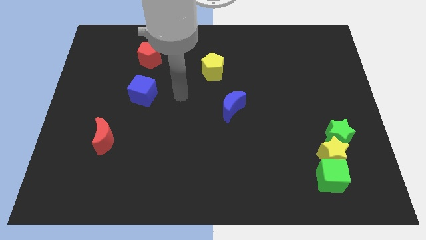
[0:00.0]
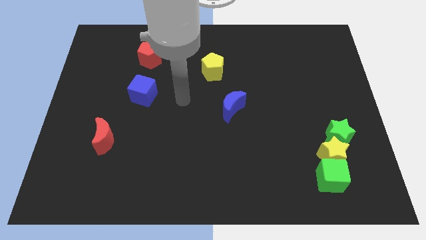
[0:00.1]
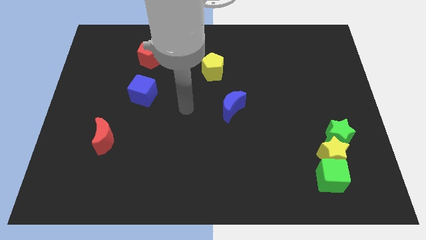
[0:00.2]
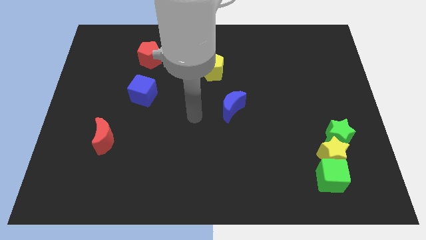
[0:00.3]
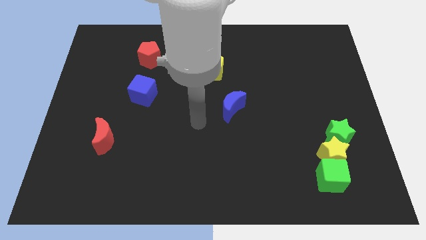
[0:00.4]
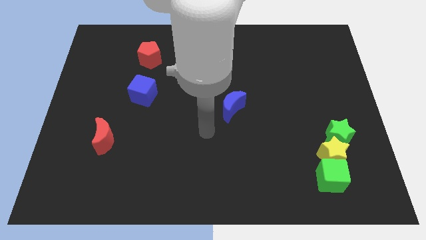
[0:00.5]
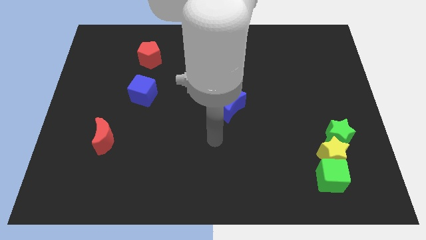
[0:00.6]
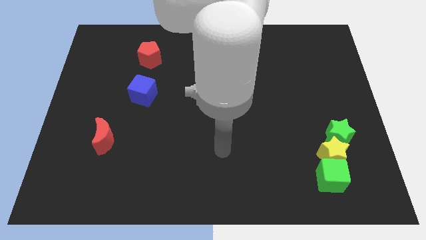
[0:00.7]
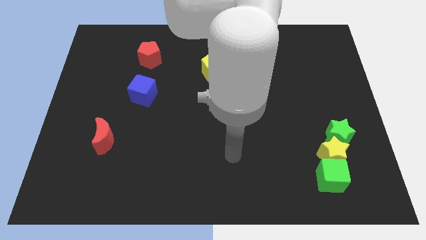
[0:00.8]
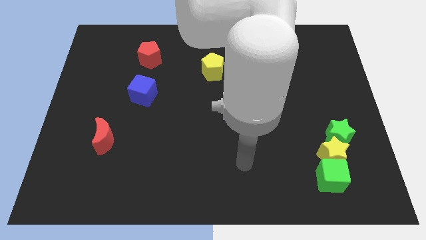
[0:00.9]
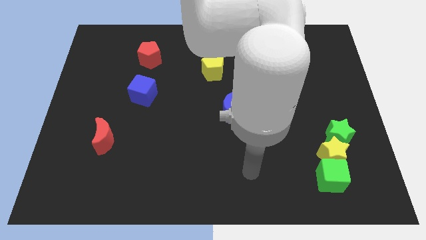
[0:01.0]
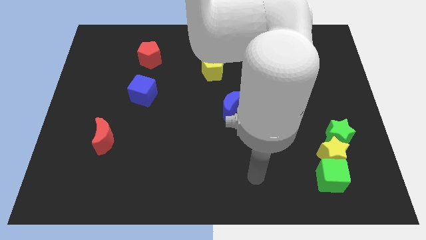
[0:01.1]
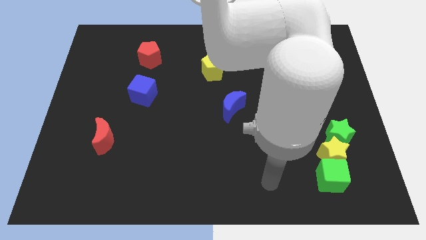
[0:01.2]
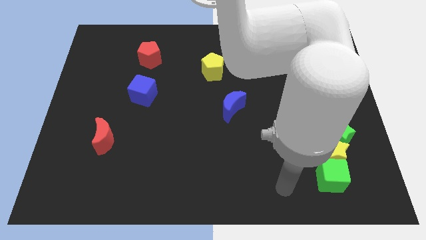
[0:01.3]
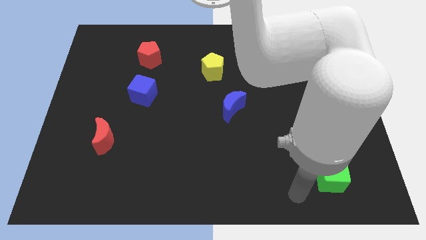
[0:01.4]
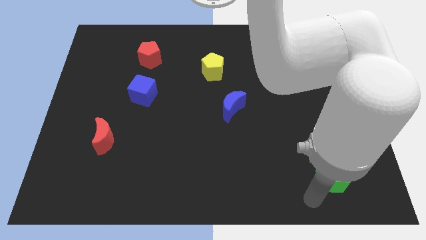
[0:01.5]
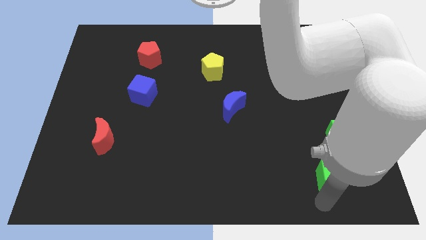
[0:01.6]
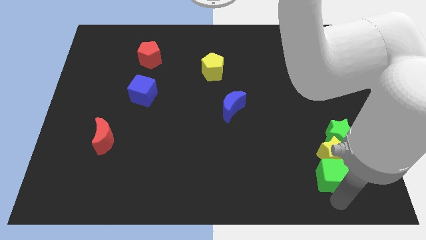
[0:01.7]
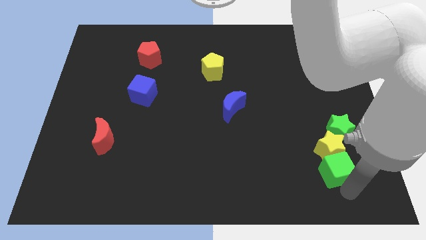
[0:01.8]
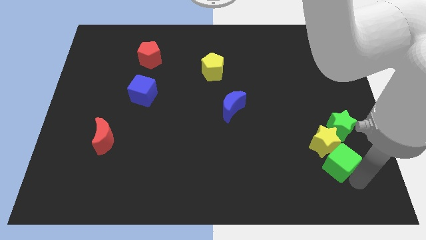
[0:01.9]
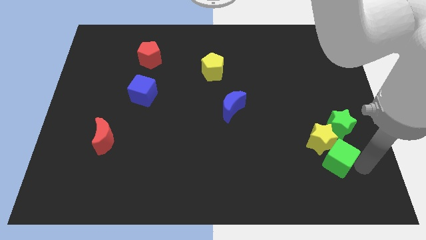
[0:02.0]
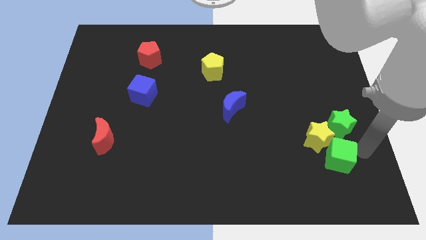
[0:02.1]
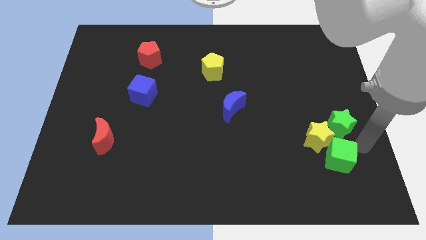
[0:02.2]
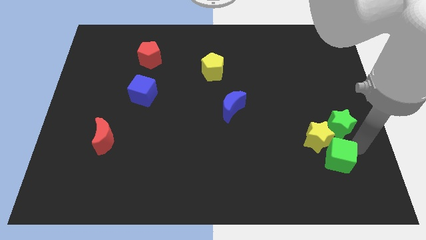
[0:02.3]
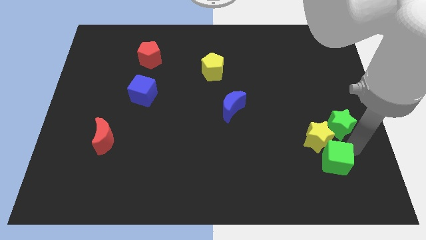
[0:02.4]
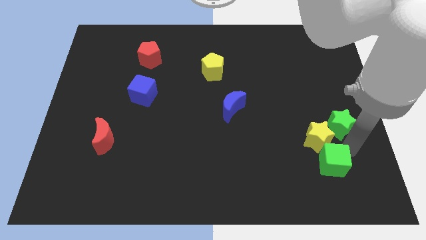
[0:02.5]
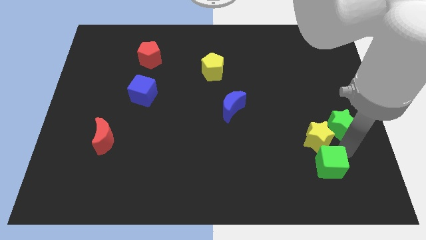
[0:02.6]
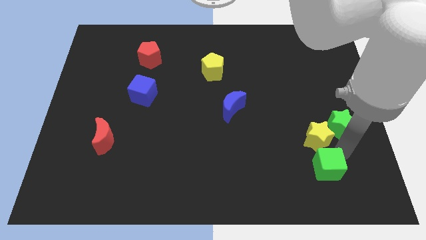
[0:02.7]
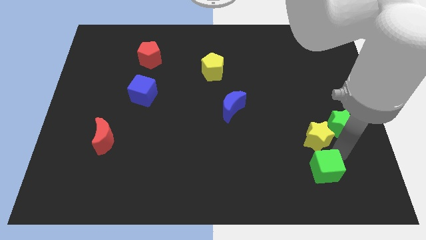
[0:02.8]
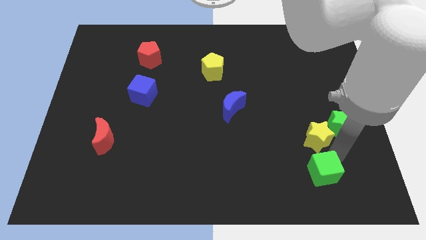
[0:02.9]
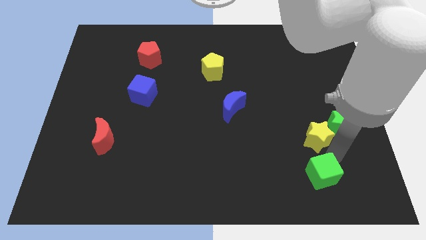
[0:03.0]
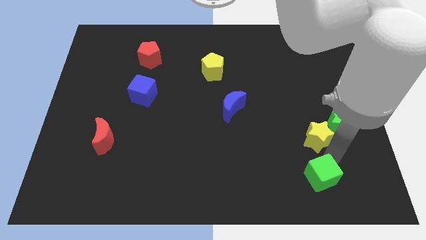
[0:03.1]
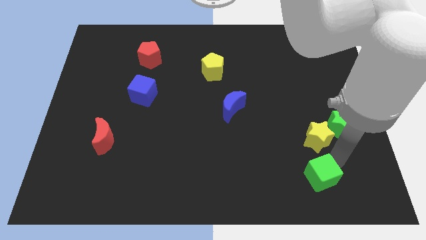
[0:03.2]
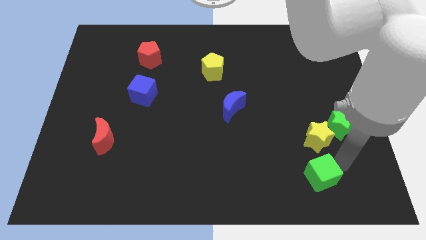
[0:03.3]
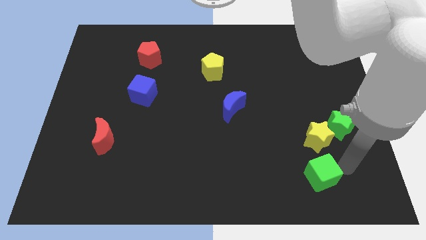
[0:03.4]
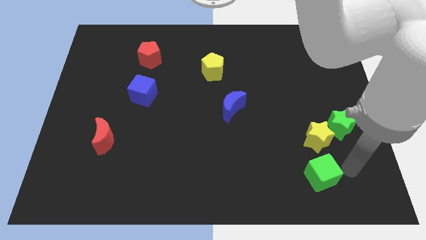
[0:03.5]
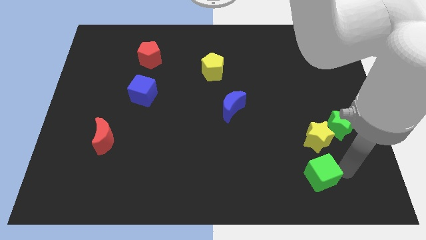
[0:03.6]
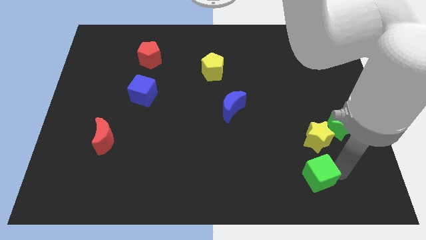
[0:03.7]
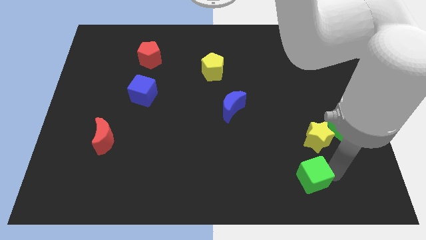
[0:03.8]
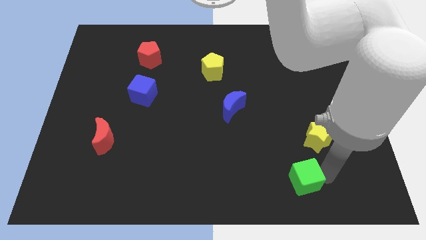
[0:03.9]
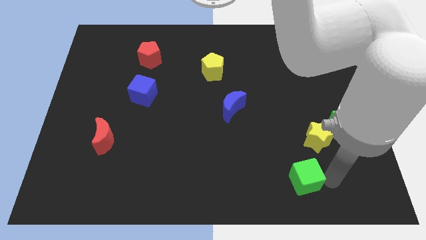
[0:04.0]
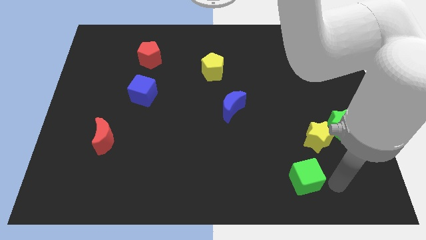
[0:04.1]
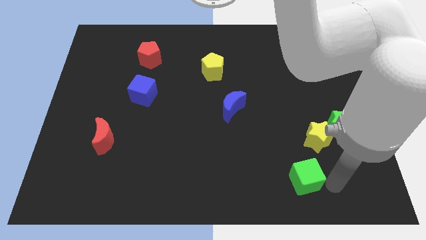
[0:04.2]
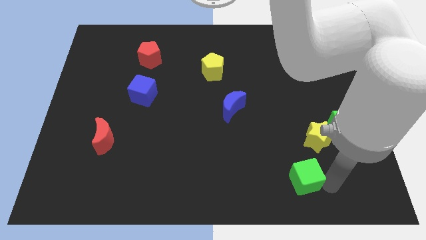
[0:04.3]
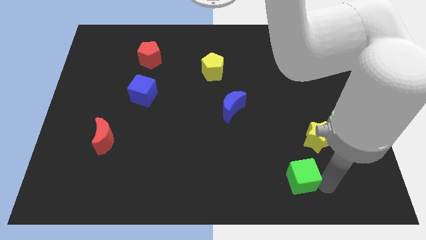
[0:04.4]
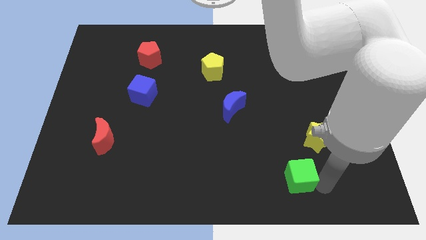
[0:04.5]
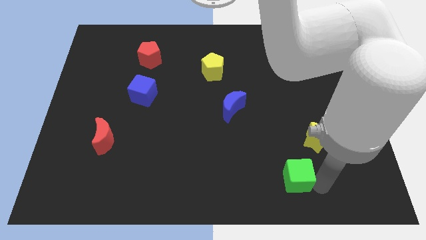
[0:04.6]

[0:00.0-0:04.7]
slide the green cube a bit left

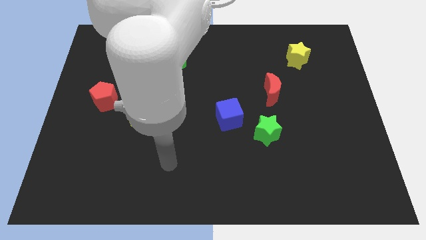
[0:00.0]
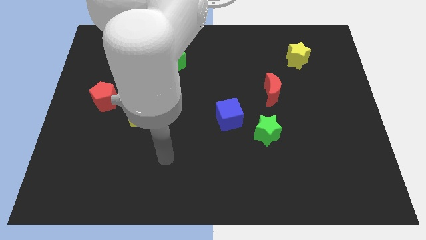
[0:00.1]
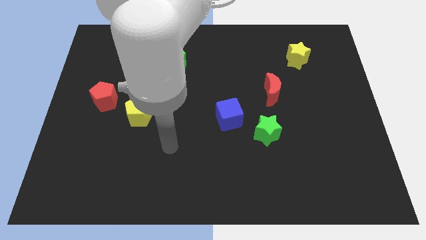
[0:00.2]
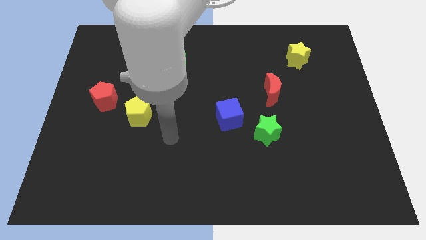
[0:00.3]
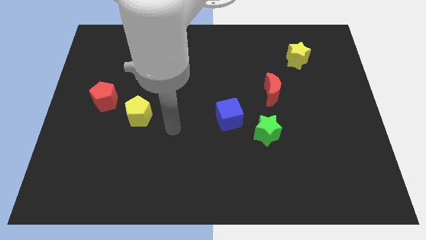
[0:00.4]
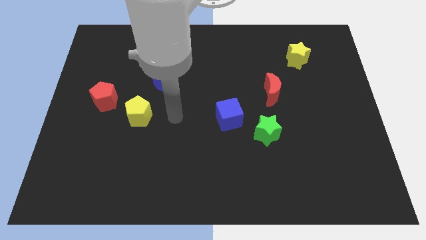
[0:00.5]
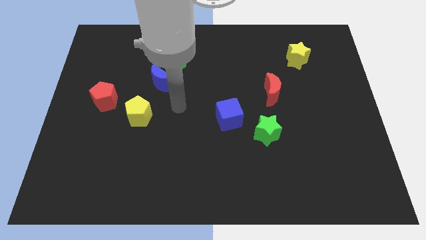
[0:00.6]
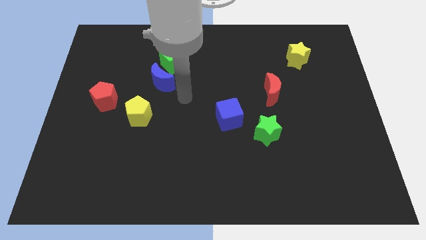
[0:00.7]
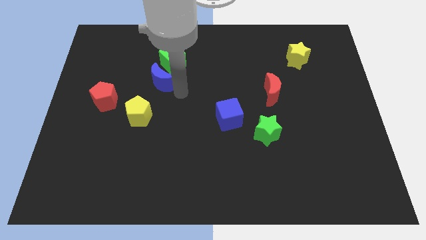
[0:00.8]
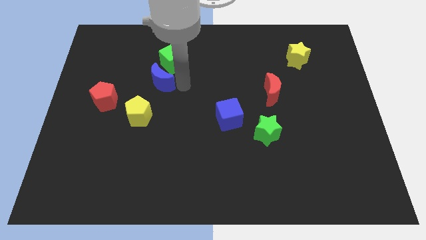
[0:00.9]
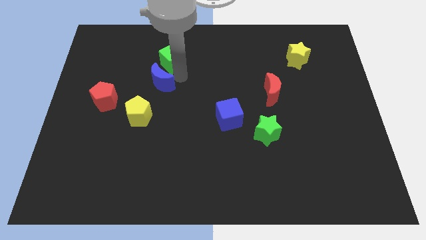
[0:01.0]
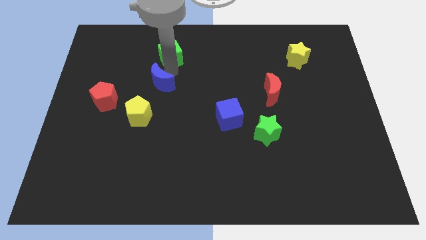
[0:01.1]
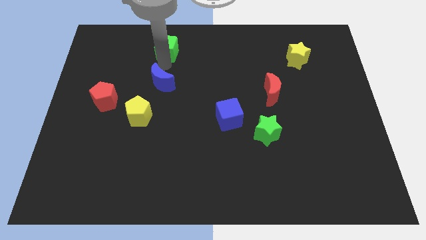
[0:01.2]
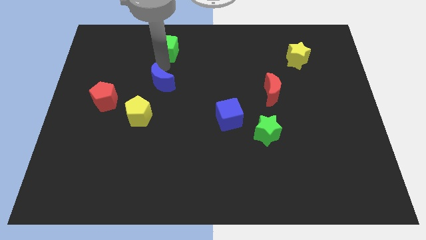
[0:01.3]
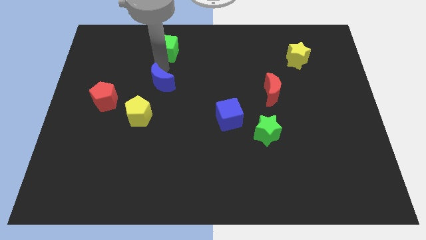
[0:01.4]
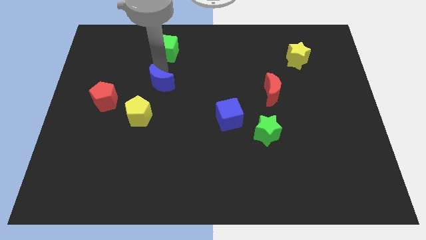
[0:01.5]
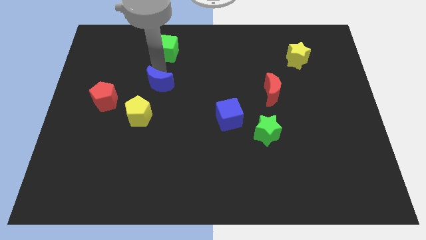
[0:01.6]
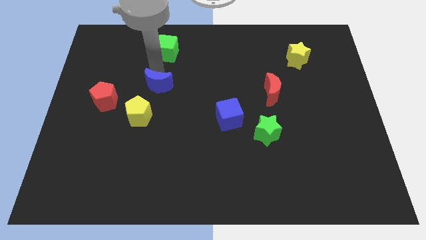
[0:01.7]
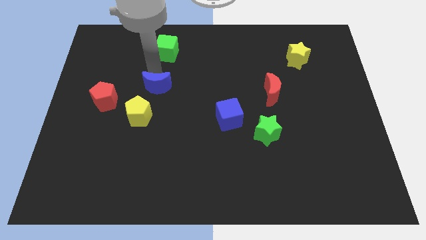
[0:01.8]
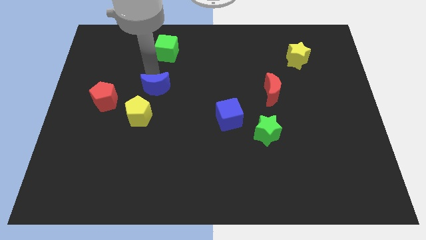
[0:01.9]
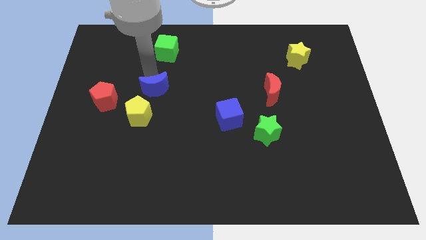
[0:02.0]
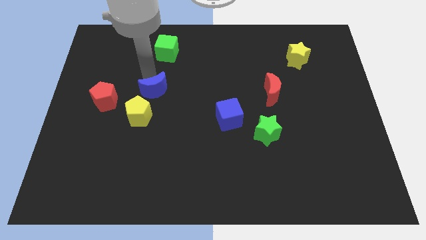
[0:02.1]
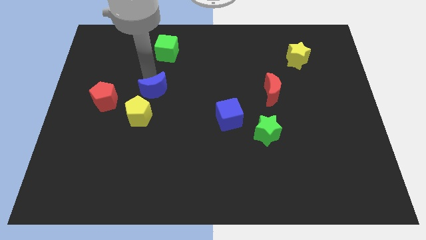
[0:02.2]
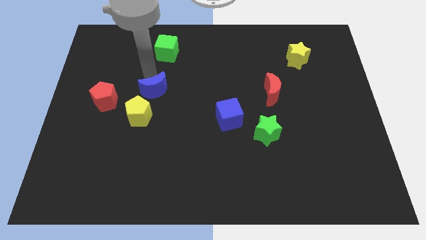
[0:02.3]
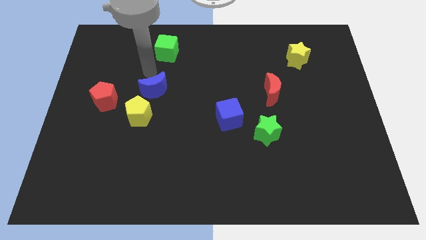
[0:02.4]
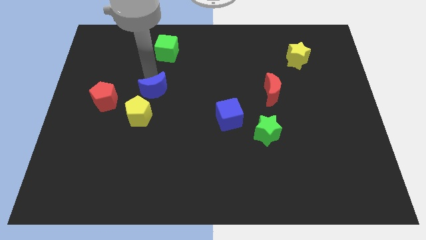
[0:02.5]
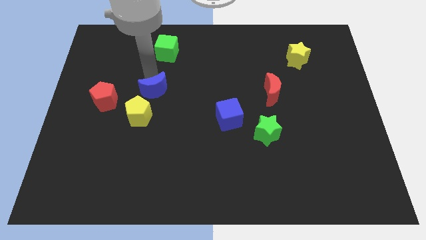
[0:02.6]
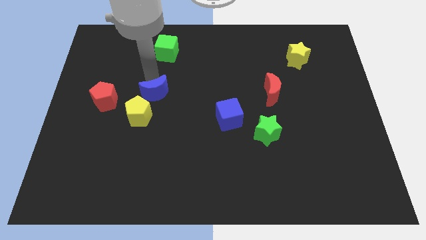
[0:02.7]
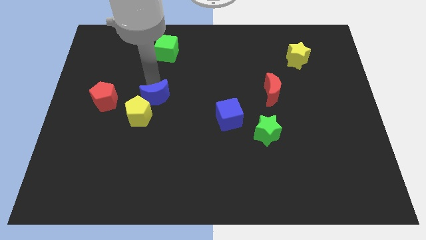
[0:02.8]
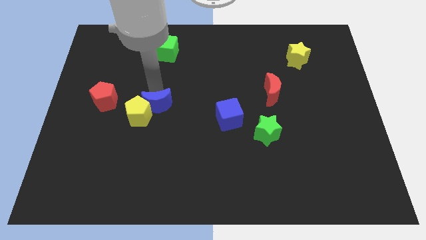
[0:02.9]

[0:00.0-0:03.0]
move the blue moon somewhat downwards

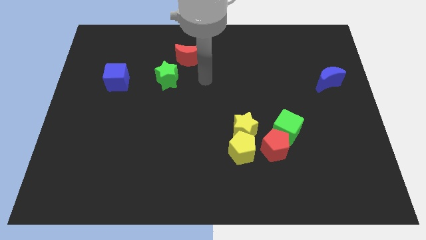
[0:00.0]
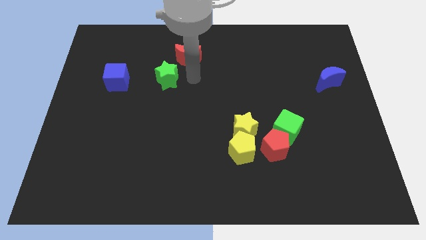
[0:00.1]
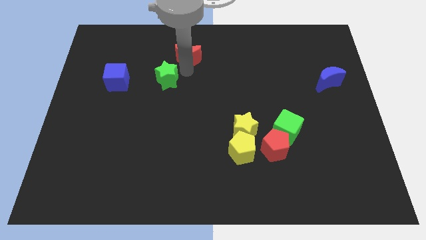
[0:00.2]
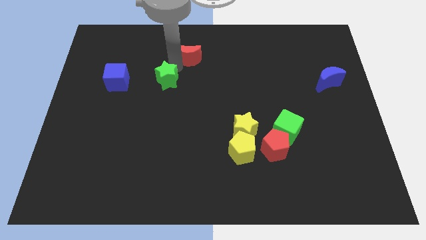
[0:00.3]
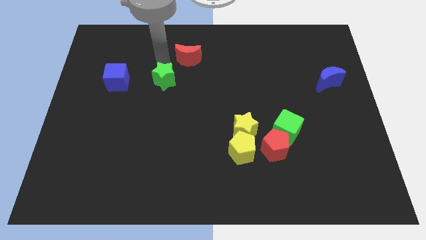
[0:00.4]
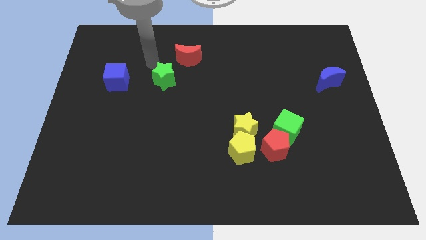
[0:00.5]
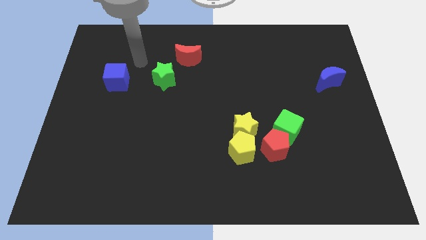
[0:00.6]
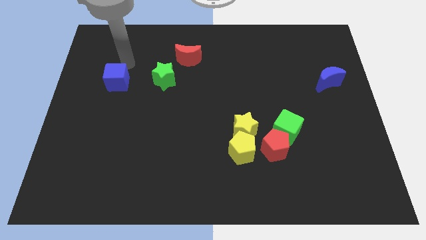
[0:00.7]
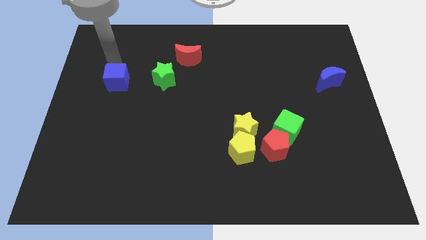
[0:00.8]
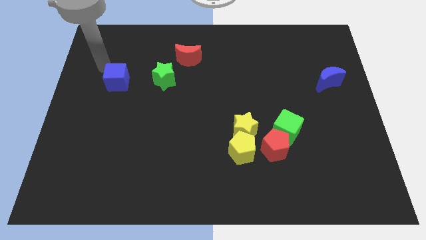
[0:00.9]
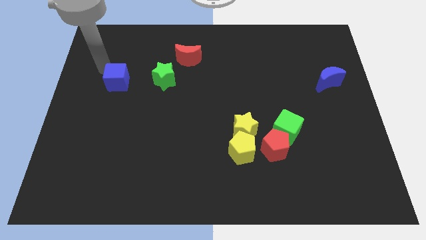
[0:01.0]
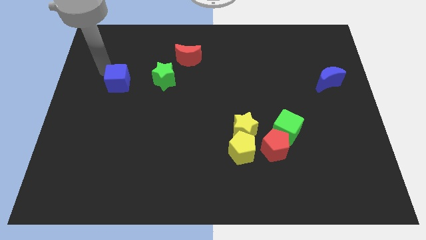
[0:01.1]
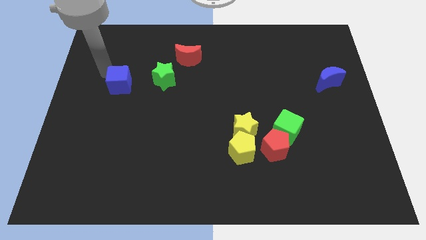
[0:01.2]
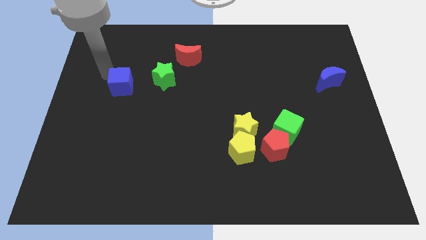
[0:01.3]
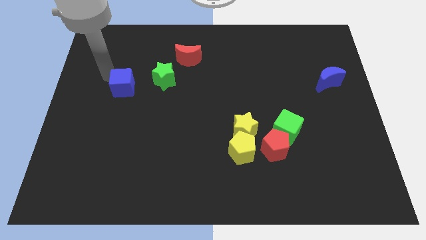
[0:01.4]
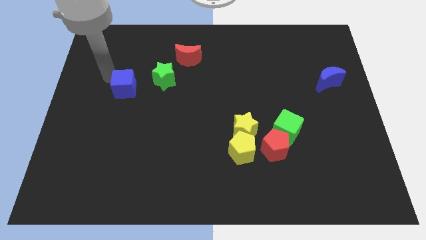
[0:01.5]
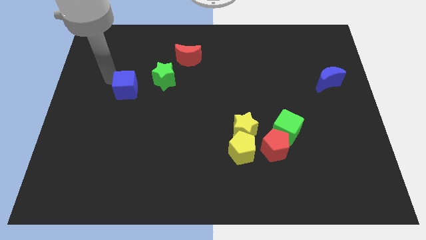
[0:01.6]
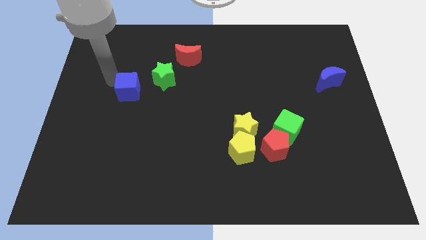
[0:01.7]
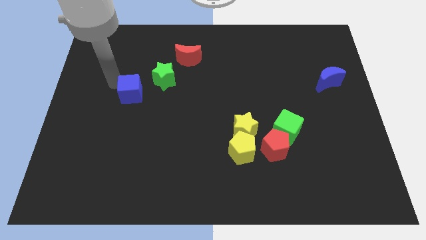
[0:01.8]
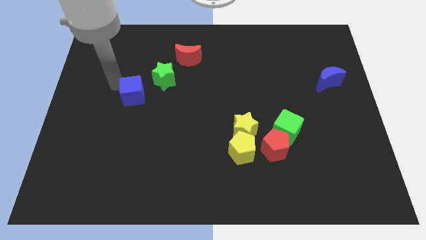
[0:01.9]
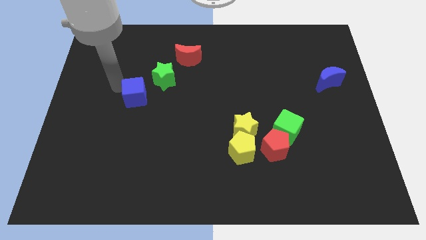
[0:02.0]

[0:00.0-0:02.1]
move the blue cube downwards and then right a little bit
